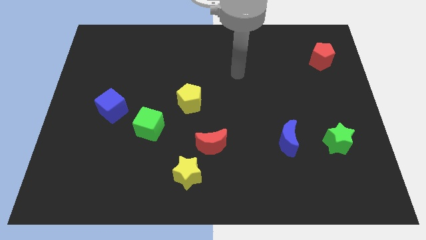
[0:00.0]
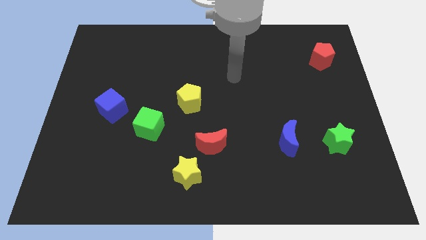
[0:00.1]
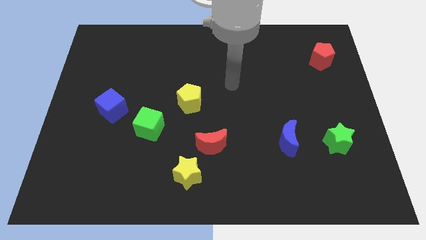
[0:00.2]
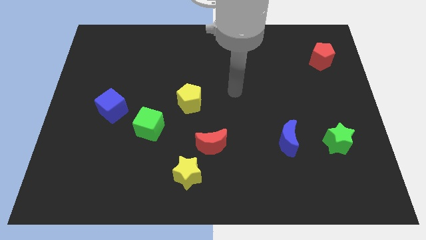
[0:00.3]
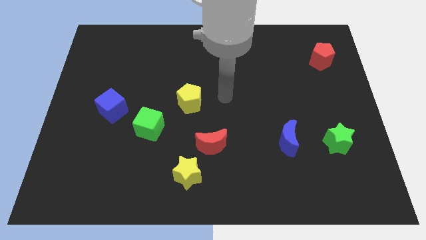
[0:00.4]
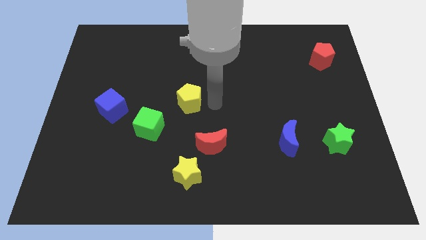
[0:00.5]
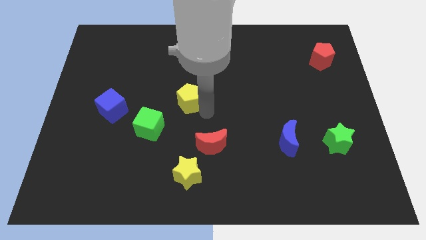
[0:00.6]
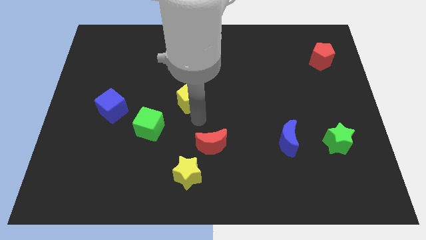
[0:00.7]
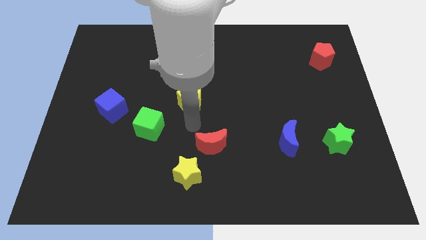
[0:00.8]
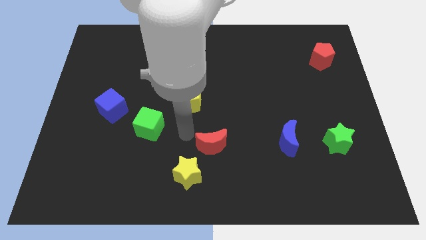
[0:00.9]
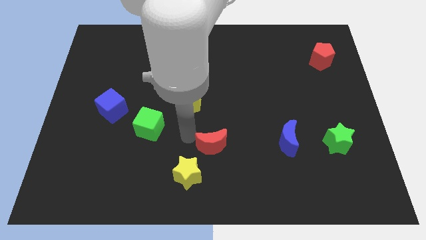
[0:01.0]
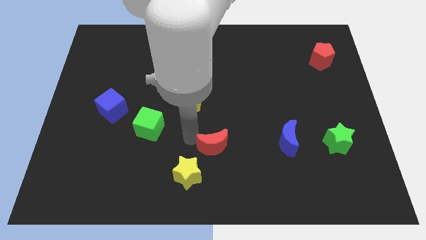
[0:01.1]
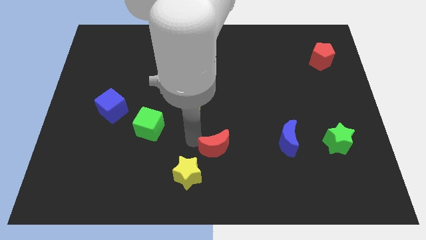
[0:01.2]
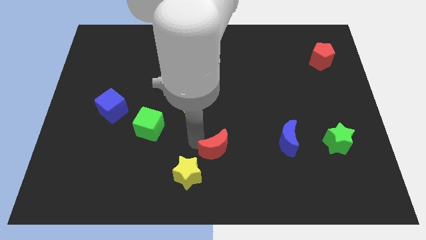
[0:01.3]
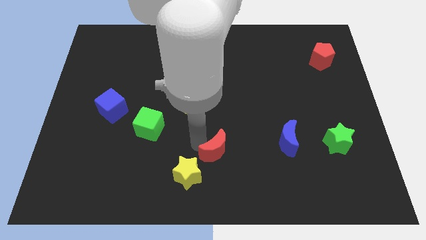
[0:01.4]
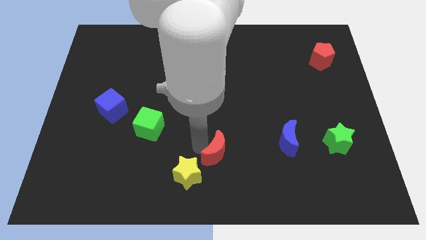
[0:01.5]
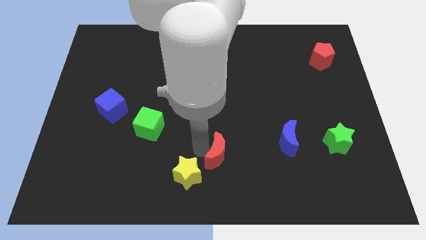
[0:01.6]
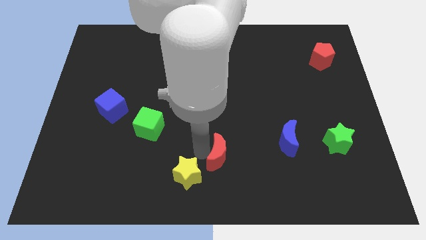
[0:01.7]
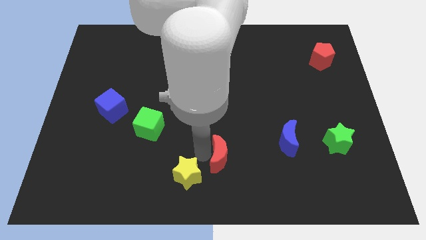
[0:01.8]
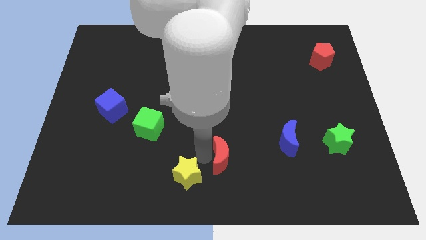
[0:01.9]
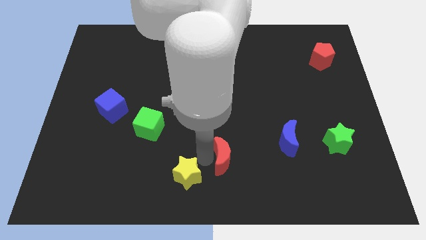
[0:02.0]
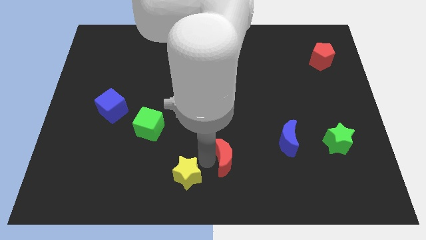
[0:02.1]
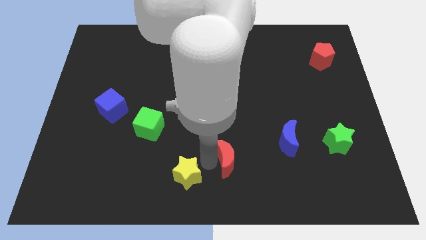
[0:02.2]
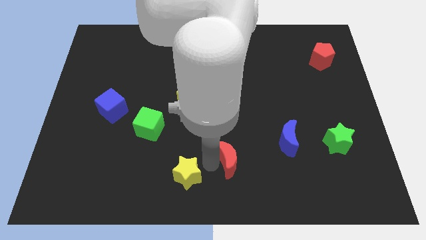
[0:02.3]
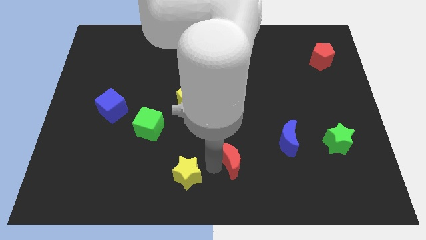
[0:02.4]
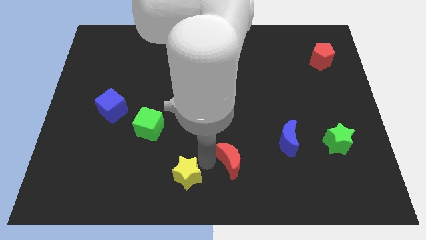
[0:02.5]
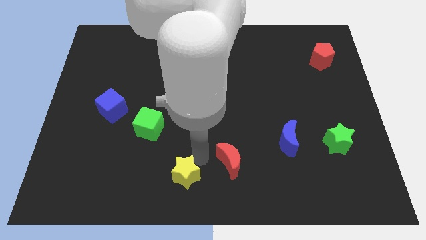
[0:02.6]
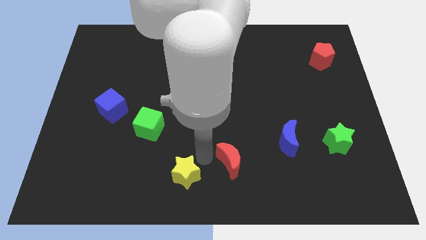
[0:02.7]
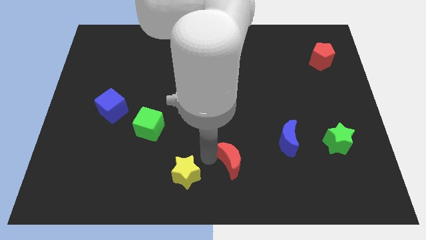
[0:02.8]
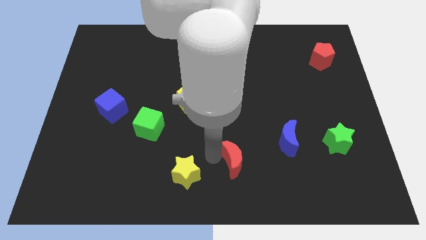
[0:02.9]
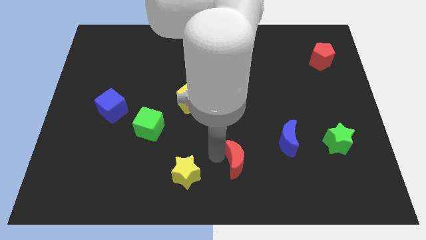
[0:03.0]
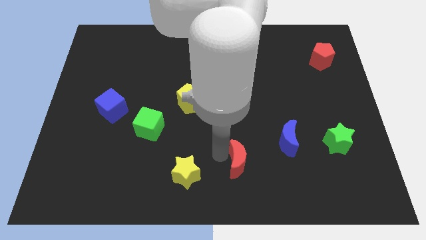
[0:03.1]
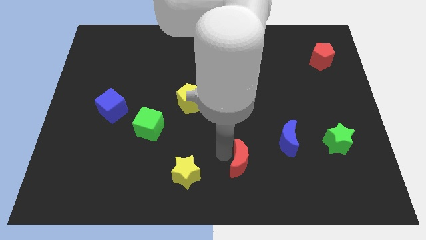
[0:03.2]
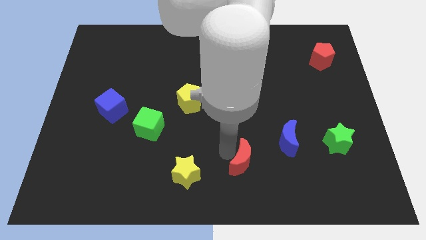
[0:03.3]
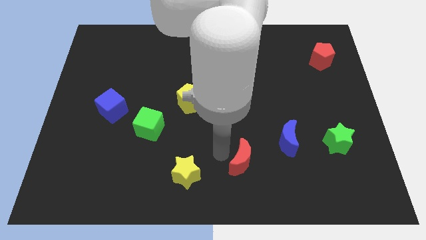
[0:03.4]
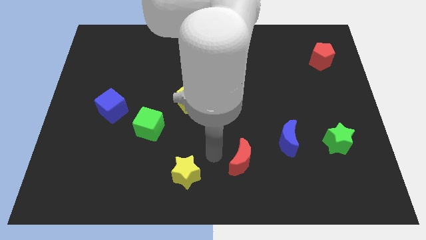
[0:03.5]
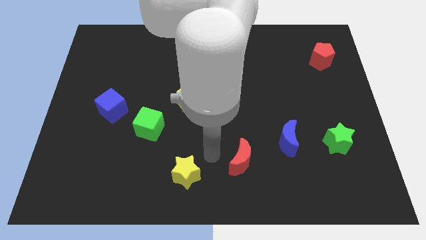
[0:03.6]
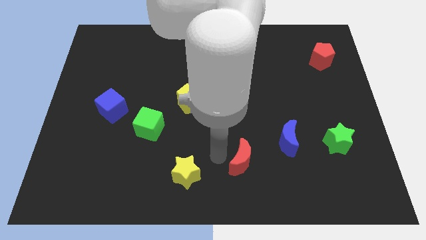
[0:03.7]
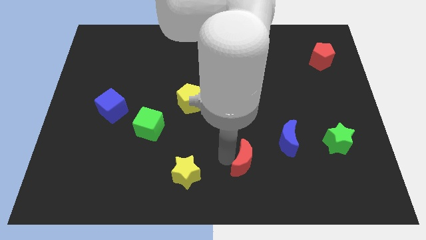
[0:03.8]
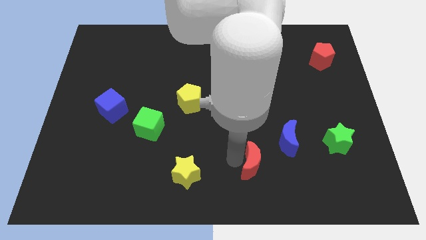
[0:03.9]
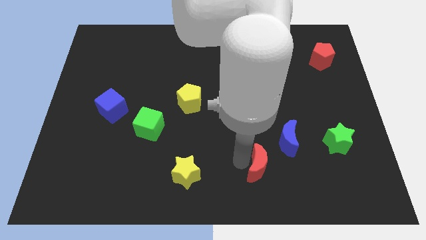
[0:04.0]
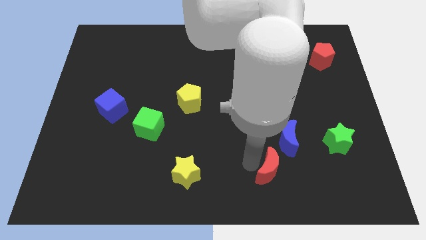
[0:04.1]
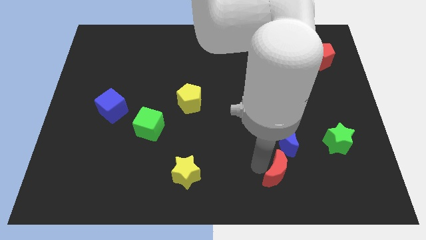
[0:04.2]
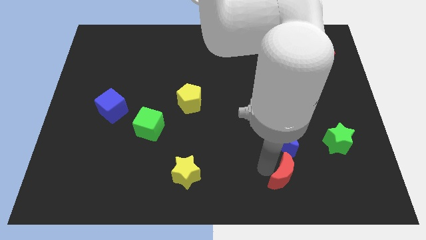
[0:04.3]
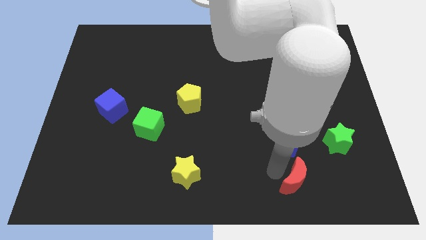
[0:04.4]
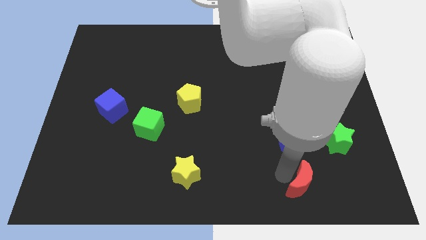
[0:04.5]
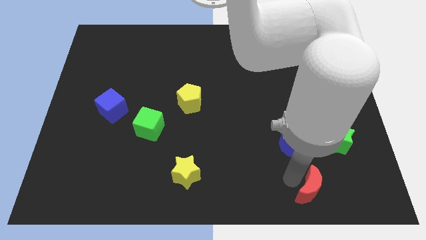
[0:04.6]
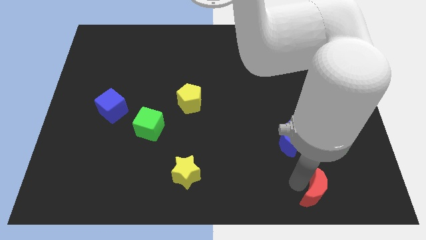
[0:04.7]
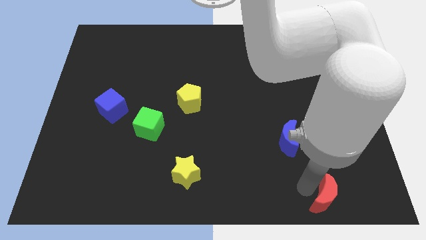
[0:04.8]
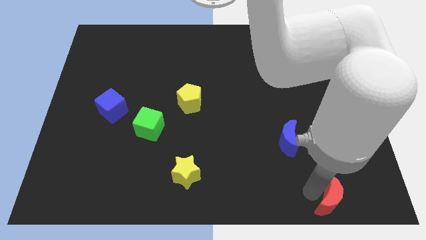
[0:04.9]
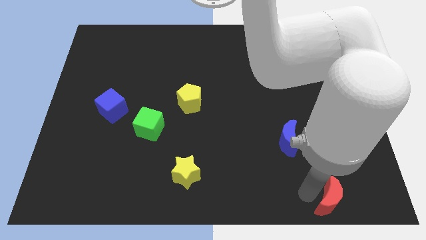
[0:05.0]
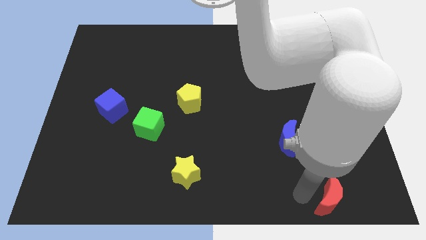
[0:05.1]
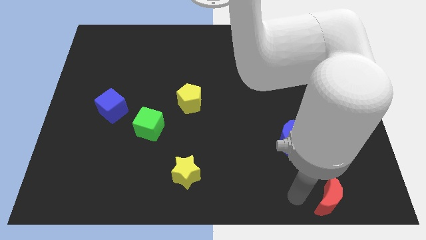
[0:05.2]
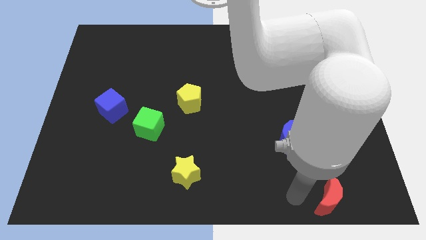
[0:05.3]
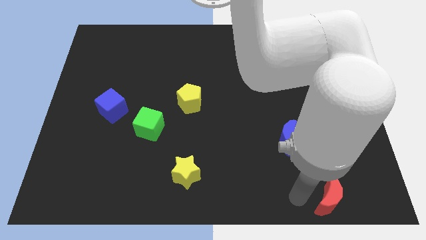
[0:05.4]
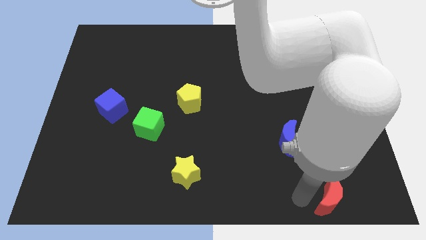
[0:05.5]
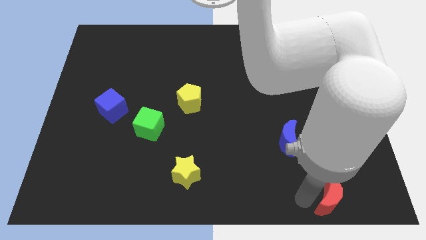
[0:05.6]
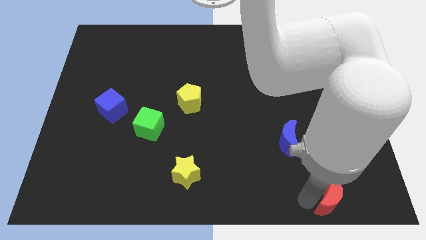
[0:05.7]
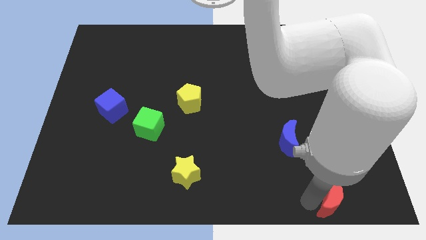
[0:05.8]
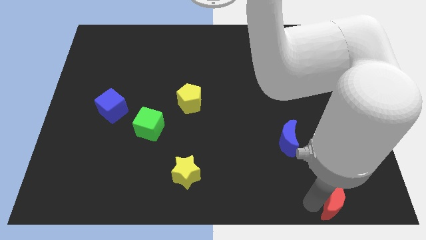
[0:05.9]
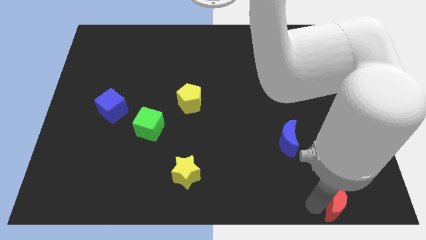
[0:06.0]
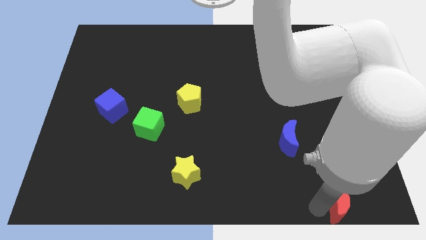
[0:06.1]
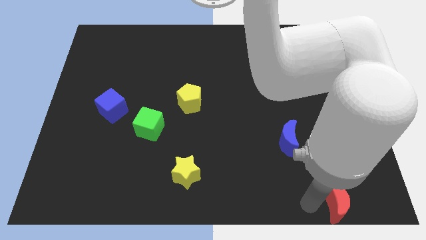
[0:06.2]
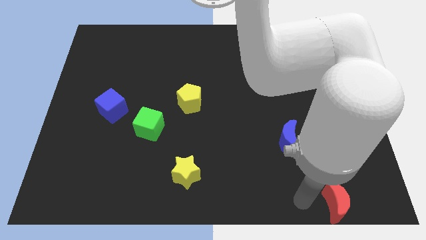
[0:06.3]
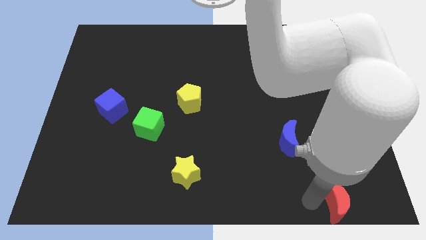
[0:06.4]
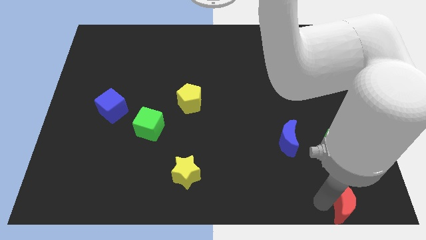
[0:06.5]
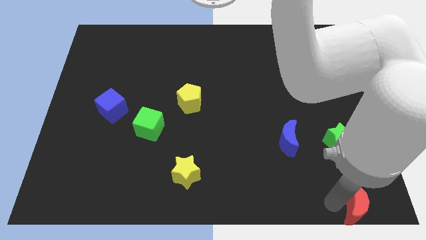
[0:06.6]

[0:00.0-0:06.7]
slide the red moon to the lower right corner
